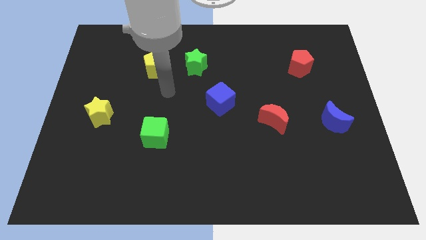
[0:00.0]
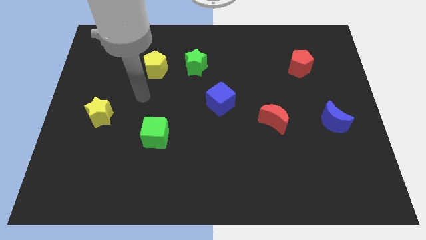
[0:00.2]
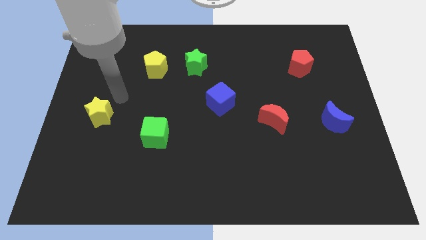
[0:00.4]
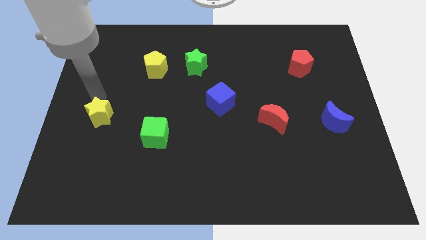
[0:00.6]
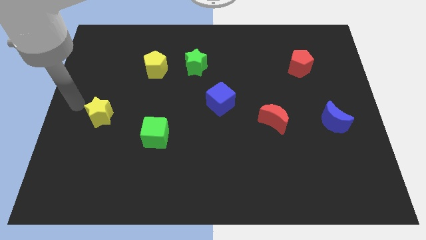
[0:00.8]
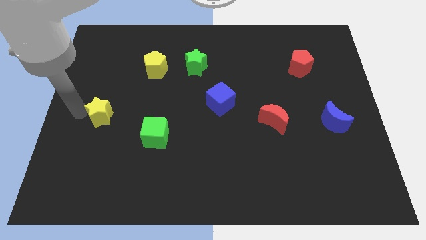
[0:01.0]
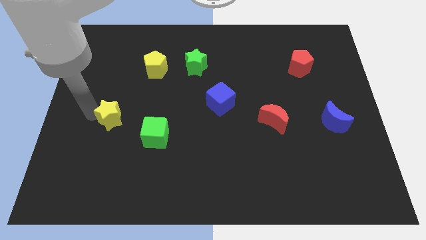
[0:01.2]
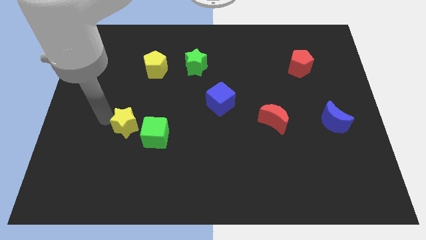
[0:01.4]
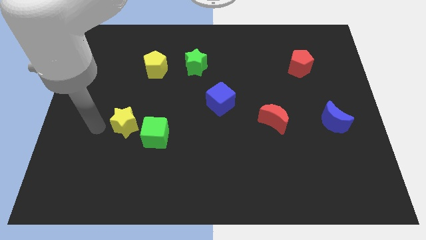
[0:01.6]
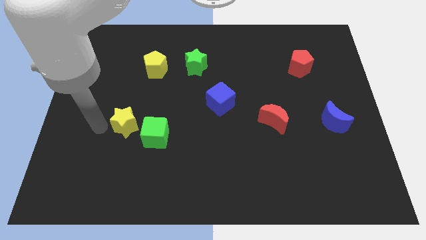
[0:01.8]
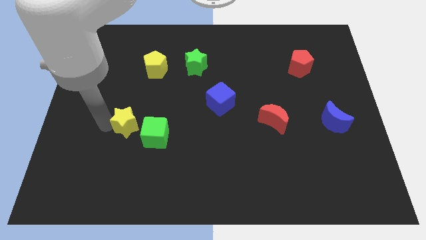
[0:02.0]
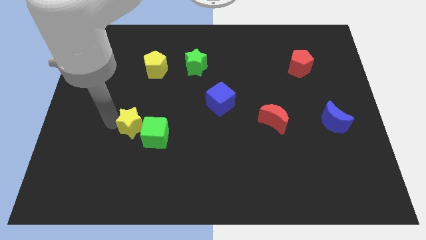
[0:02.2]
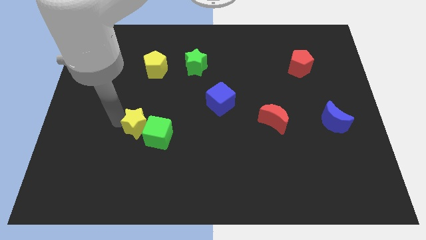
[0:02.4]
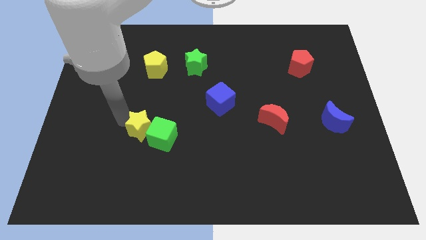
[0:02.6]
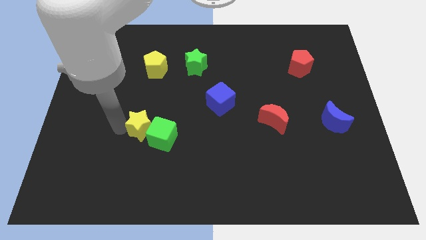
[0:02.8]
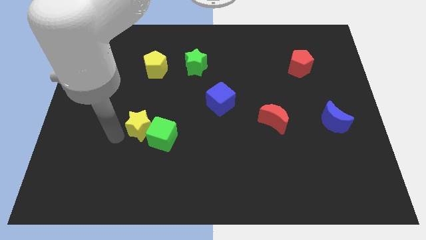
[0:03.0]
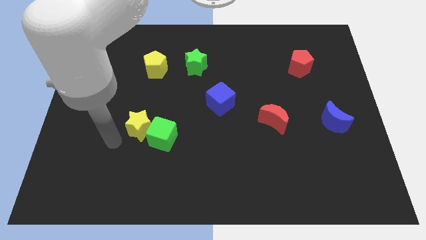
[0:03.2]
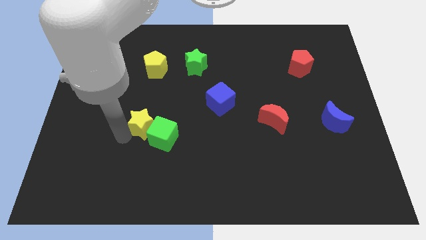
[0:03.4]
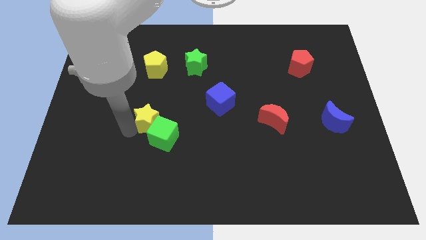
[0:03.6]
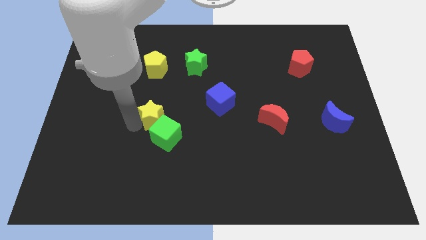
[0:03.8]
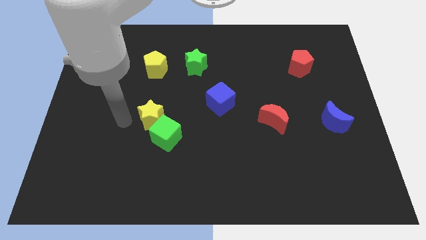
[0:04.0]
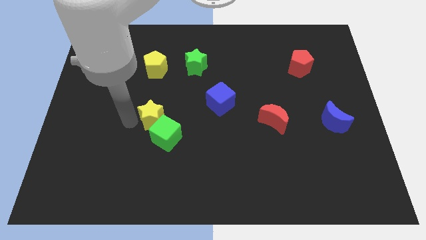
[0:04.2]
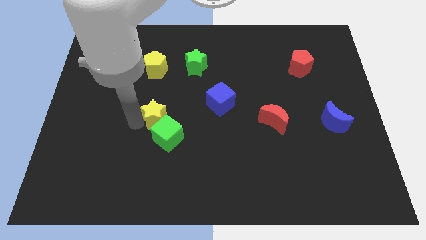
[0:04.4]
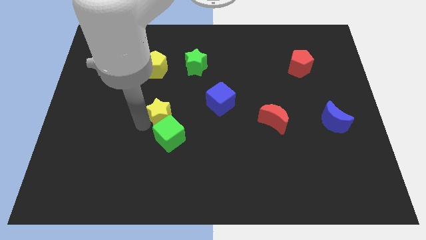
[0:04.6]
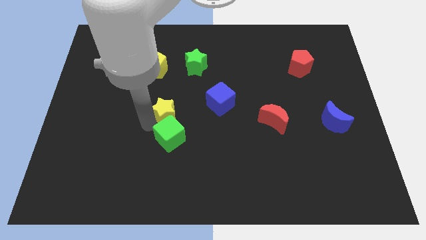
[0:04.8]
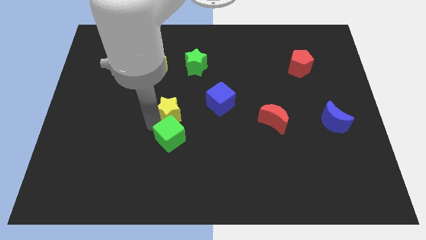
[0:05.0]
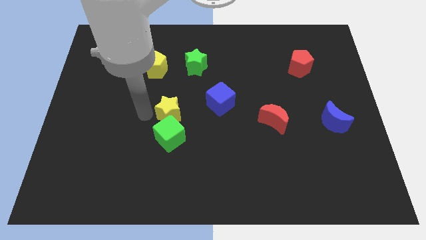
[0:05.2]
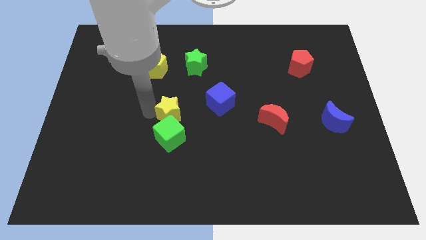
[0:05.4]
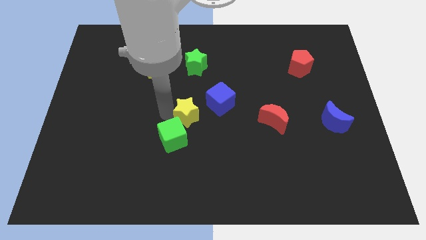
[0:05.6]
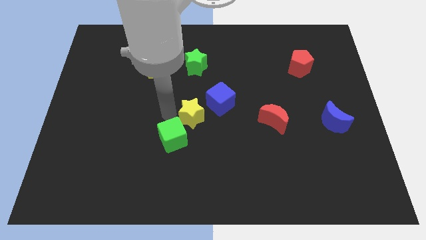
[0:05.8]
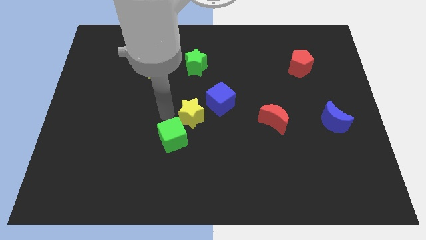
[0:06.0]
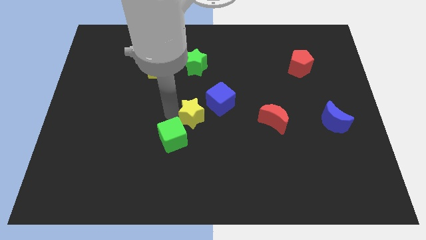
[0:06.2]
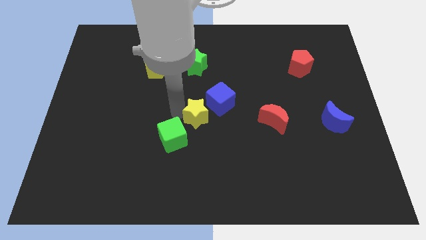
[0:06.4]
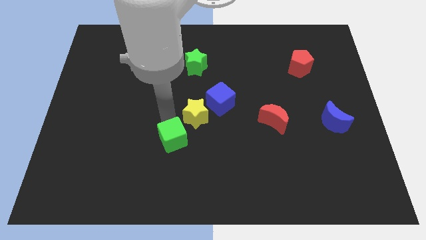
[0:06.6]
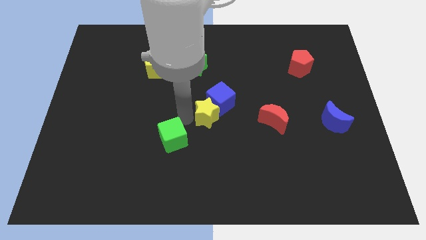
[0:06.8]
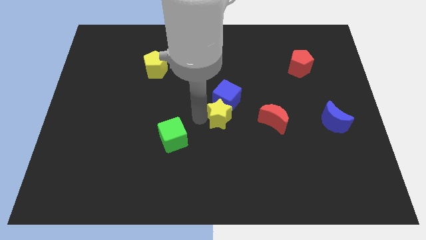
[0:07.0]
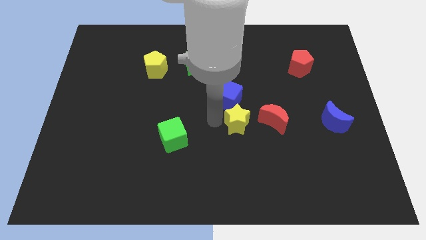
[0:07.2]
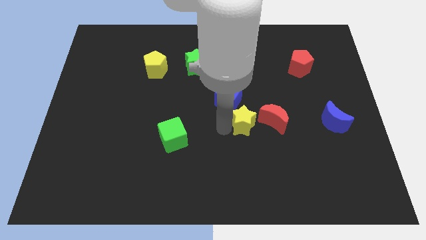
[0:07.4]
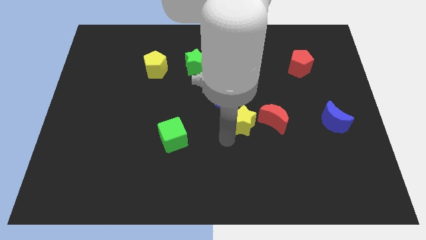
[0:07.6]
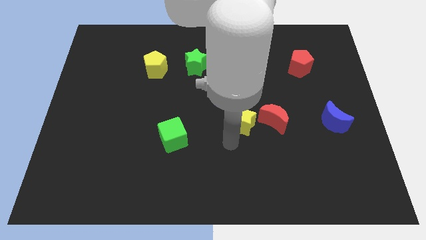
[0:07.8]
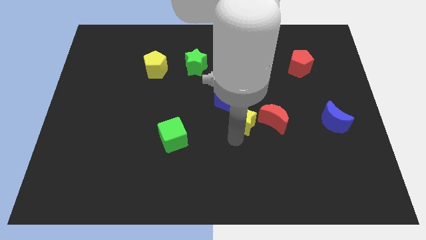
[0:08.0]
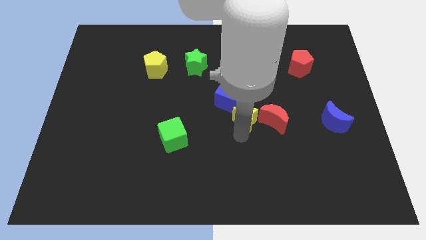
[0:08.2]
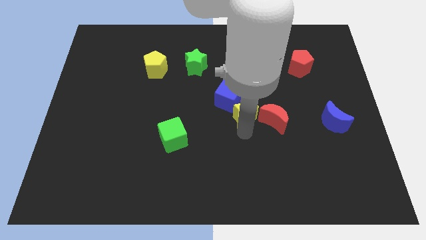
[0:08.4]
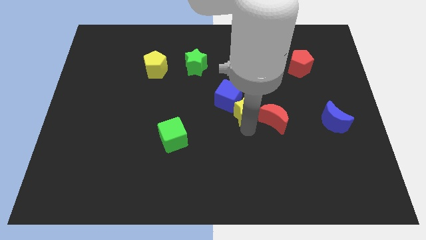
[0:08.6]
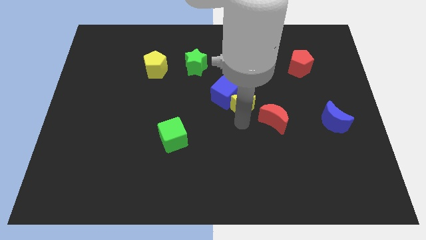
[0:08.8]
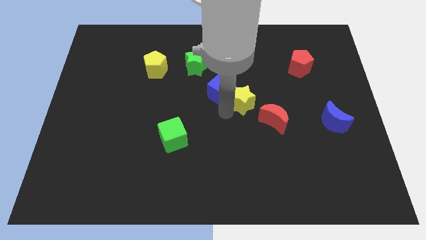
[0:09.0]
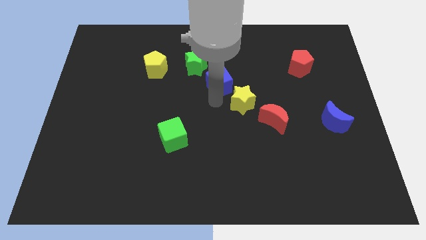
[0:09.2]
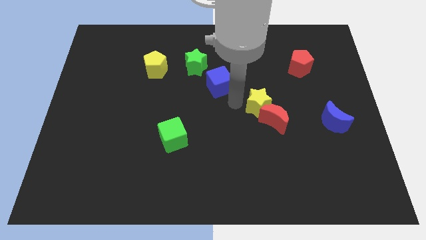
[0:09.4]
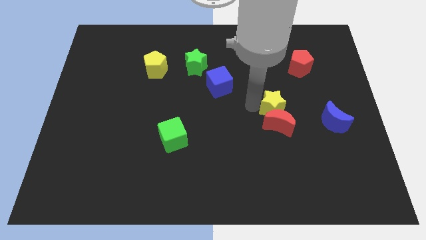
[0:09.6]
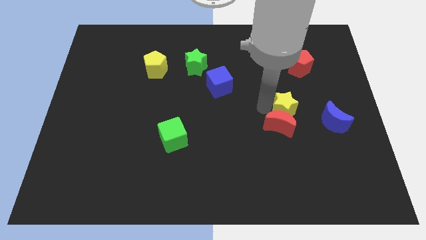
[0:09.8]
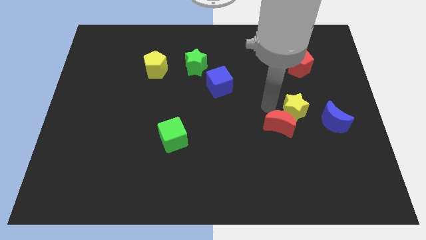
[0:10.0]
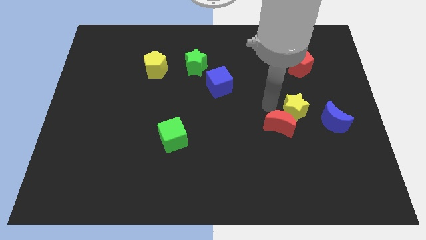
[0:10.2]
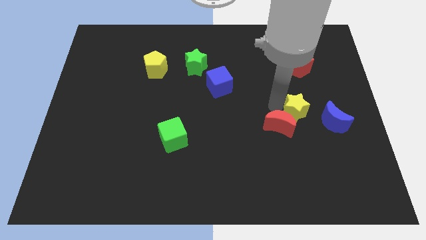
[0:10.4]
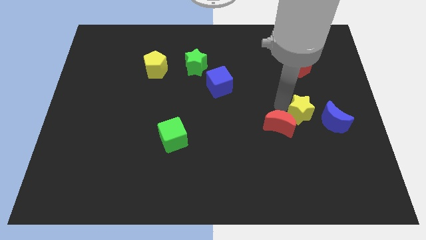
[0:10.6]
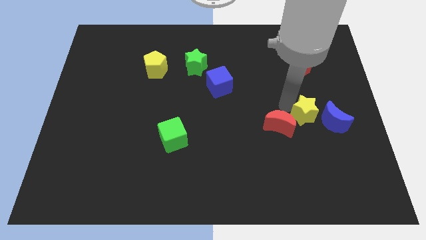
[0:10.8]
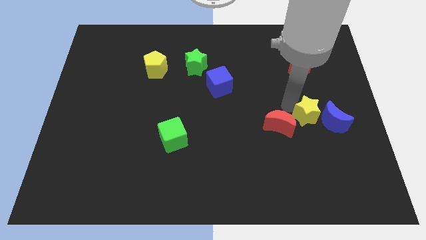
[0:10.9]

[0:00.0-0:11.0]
slide the yellow star close to the blue moon

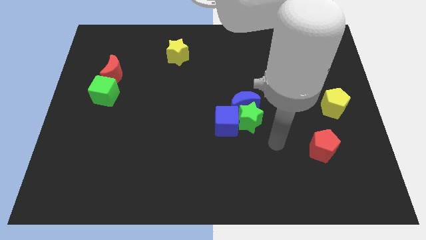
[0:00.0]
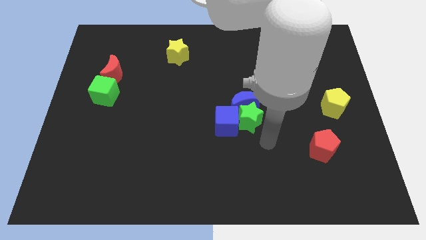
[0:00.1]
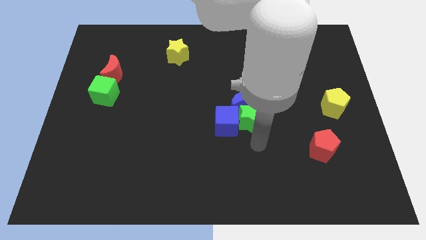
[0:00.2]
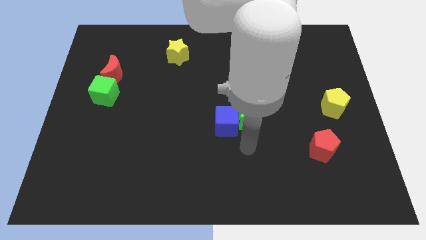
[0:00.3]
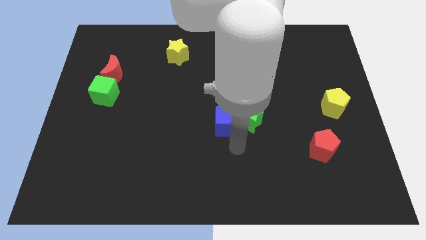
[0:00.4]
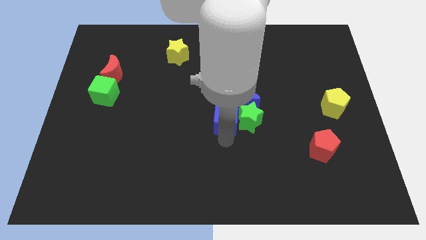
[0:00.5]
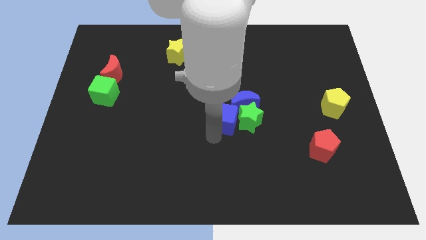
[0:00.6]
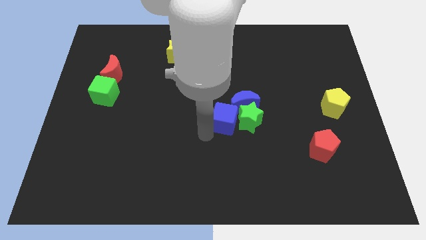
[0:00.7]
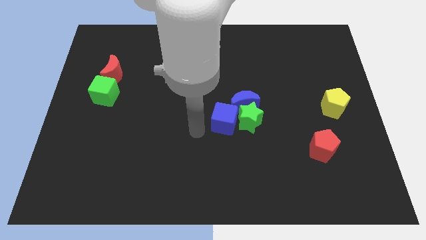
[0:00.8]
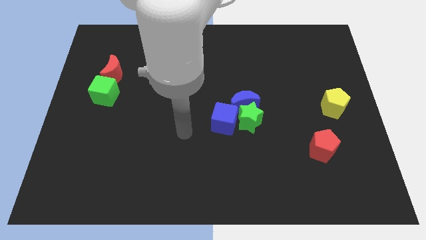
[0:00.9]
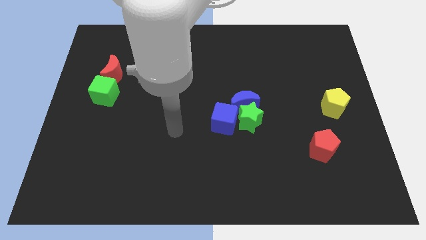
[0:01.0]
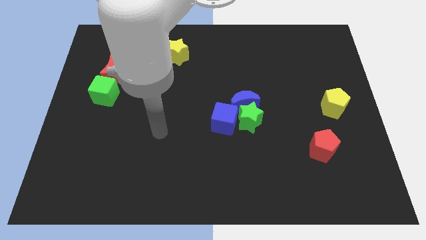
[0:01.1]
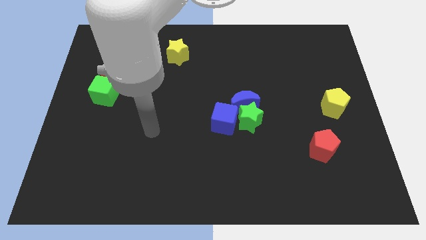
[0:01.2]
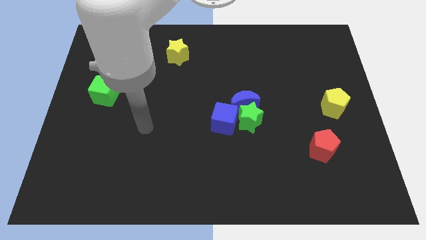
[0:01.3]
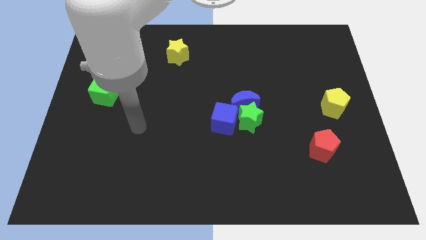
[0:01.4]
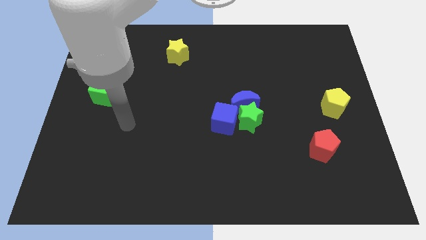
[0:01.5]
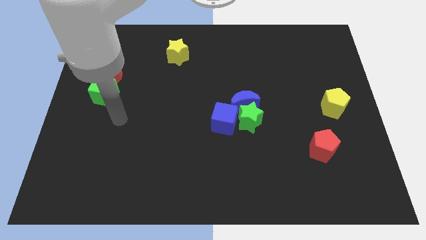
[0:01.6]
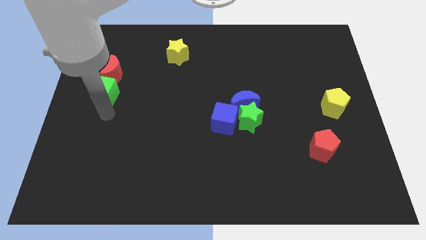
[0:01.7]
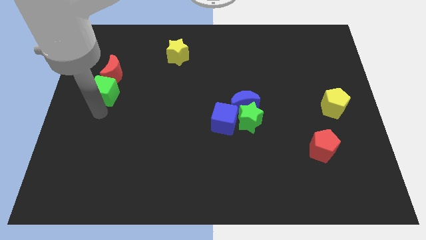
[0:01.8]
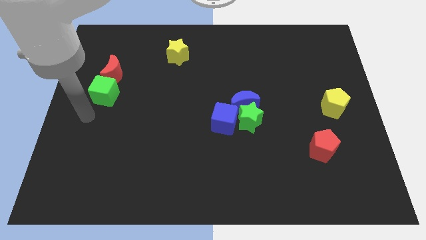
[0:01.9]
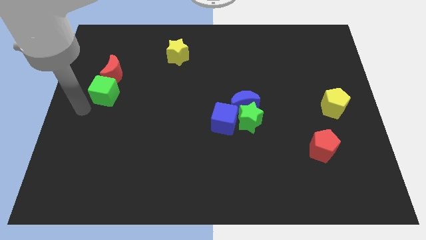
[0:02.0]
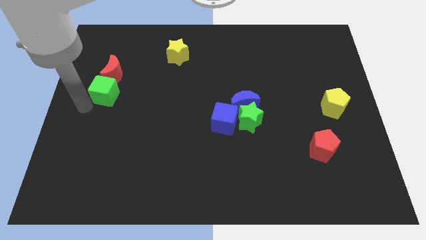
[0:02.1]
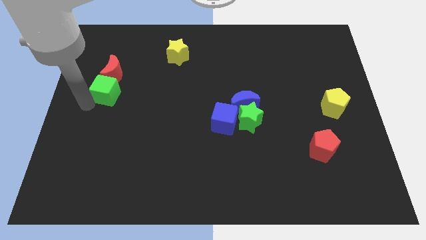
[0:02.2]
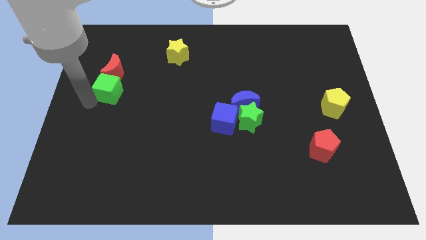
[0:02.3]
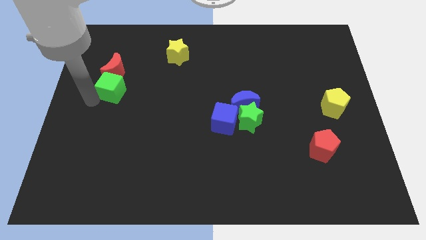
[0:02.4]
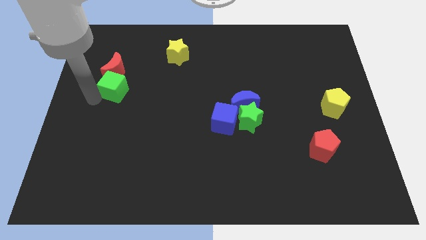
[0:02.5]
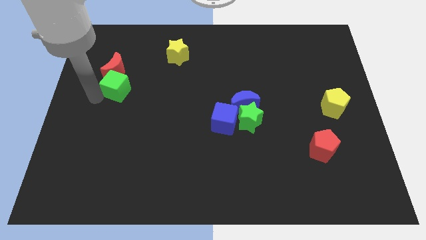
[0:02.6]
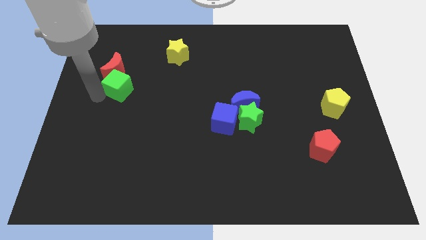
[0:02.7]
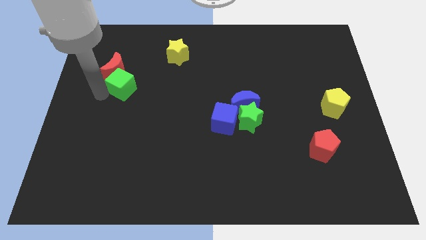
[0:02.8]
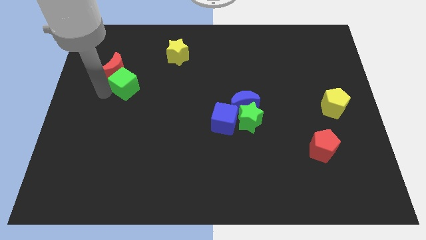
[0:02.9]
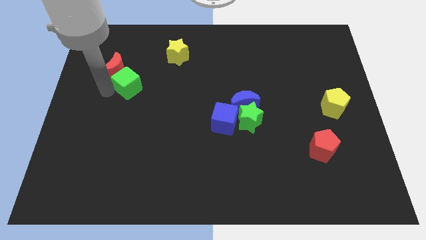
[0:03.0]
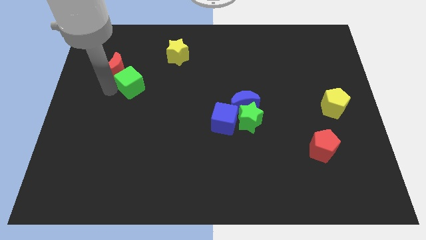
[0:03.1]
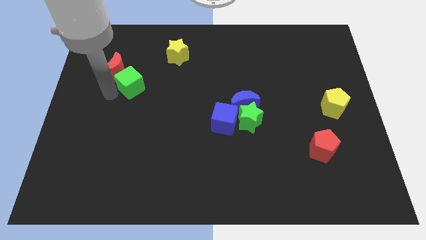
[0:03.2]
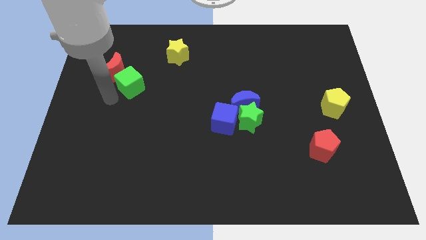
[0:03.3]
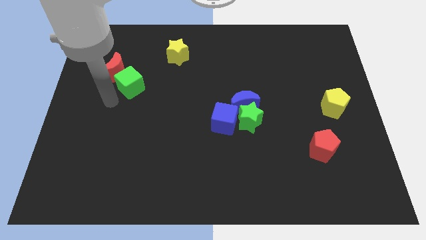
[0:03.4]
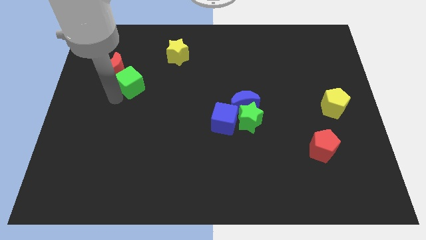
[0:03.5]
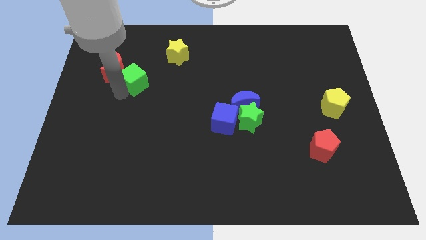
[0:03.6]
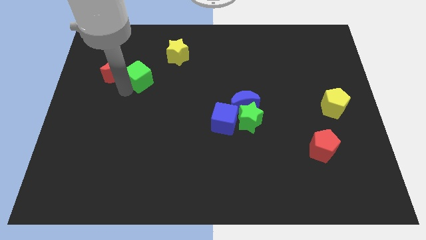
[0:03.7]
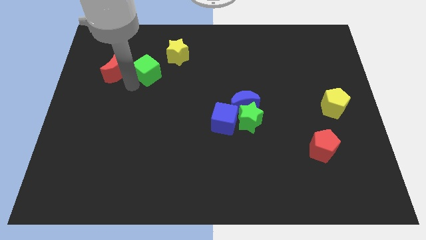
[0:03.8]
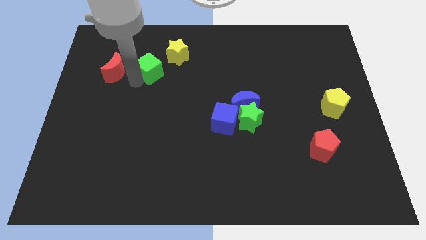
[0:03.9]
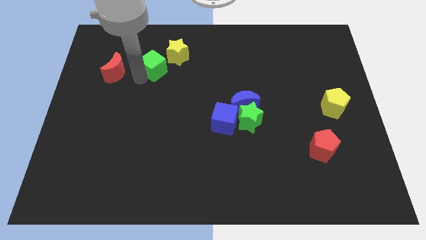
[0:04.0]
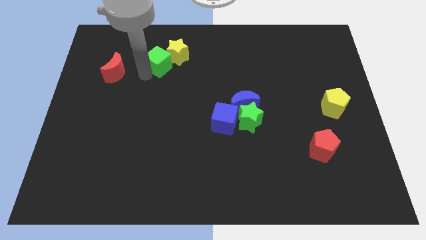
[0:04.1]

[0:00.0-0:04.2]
push the green cube towards the yellow star
